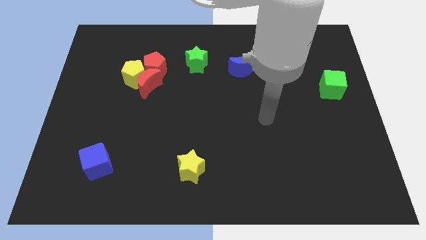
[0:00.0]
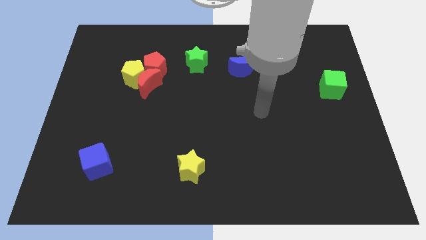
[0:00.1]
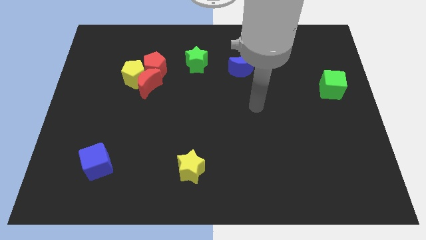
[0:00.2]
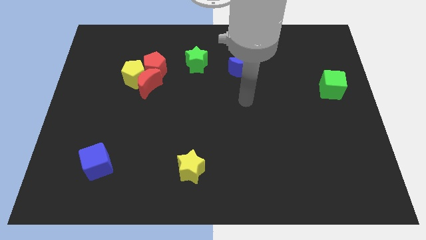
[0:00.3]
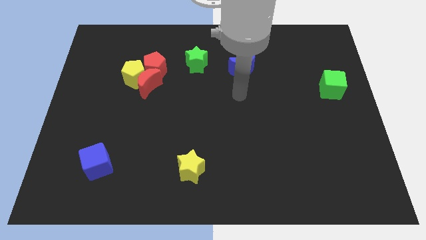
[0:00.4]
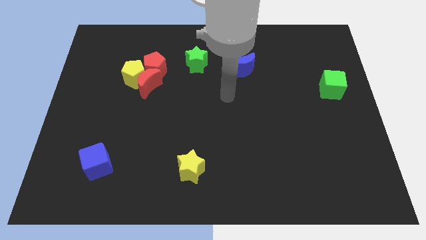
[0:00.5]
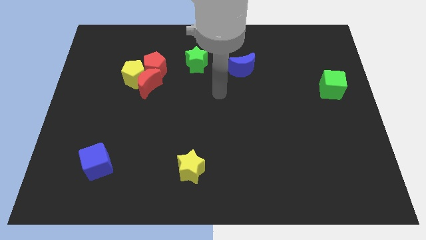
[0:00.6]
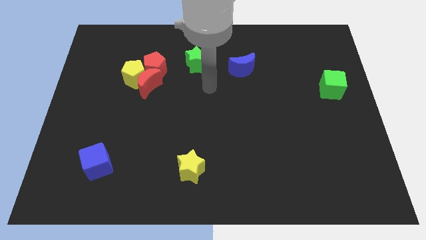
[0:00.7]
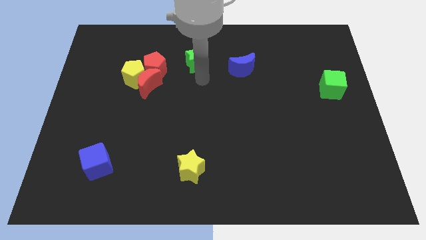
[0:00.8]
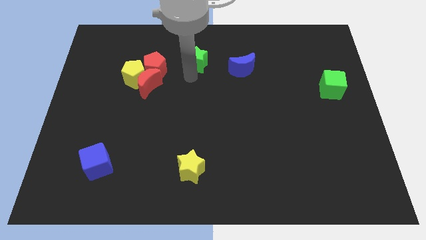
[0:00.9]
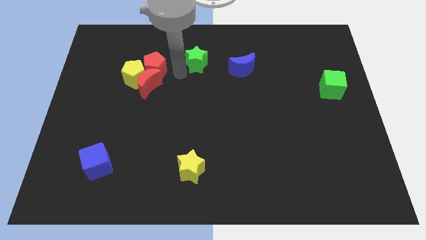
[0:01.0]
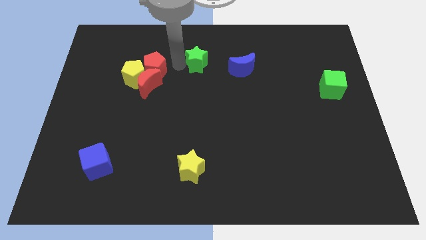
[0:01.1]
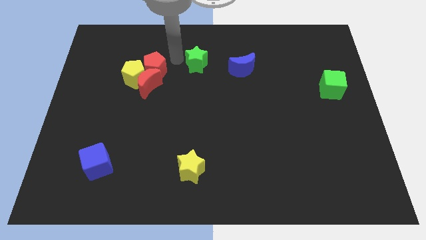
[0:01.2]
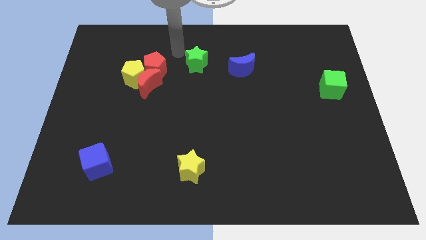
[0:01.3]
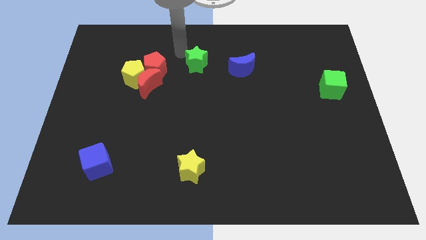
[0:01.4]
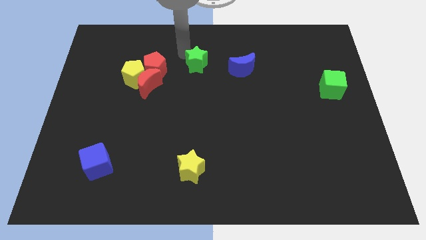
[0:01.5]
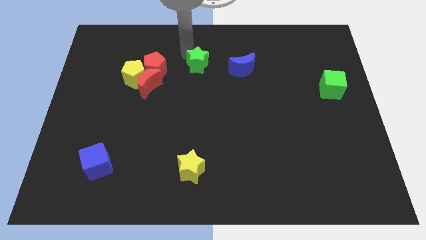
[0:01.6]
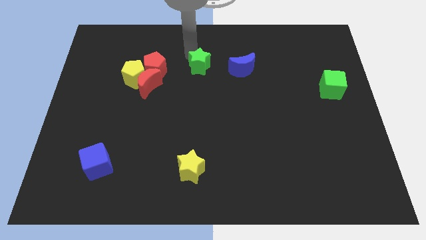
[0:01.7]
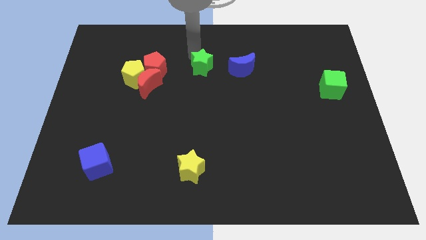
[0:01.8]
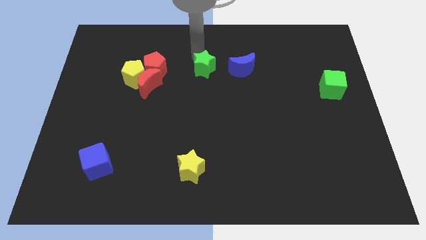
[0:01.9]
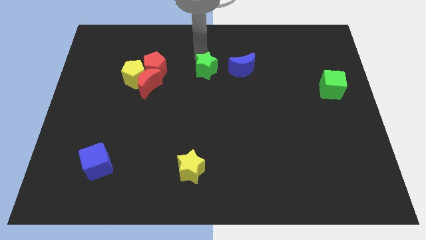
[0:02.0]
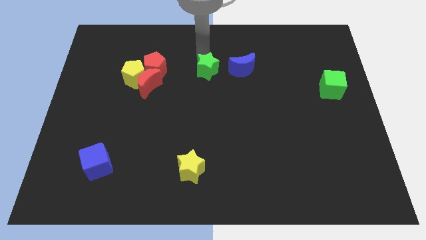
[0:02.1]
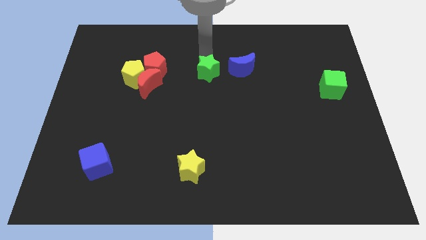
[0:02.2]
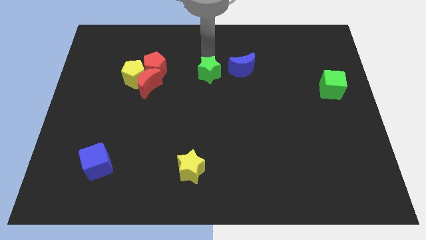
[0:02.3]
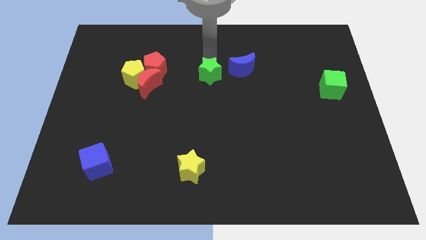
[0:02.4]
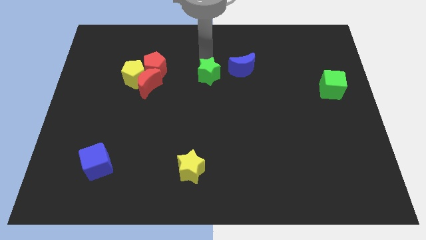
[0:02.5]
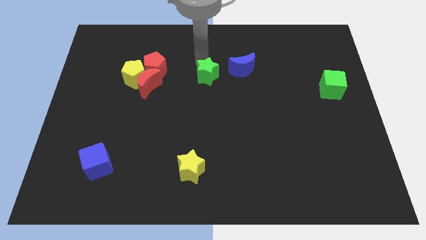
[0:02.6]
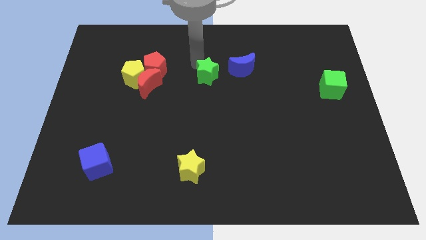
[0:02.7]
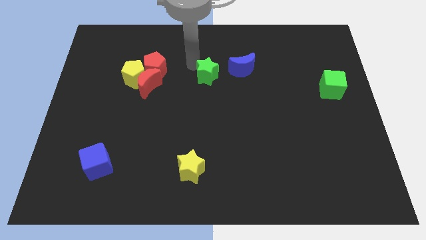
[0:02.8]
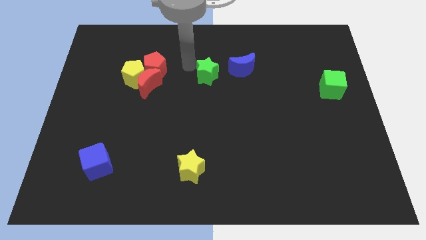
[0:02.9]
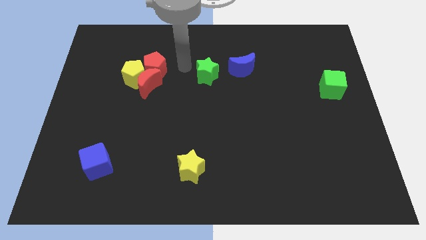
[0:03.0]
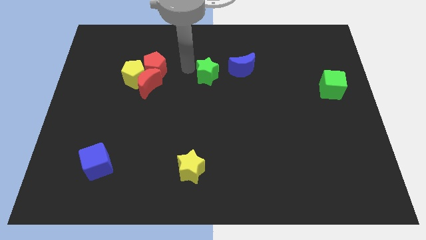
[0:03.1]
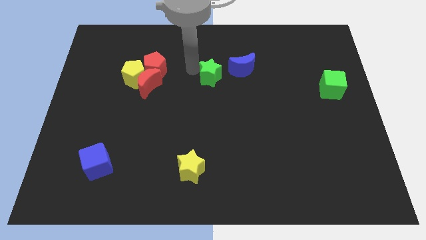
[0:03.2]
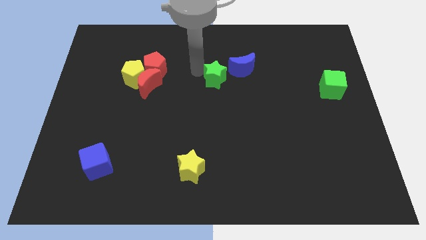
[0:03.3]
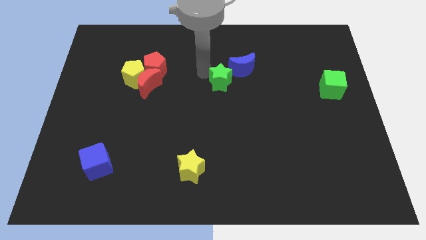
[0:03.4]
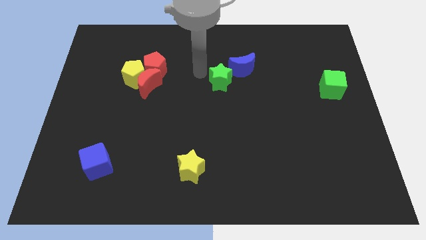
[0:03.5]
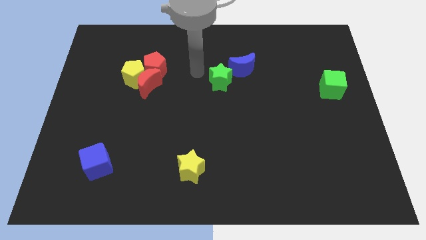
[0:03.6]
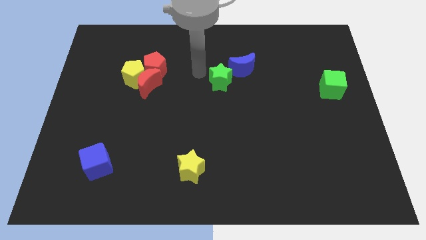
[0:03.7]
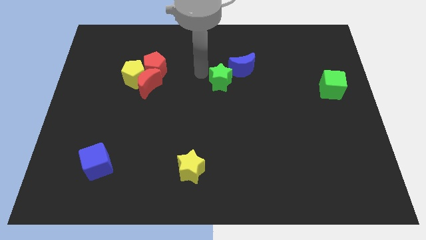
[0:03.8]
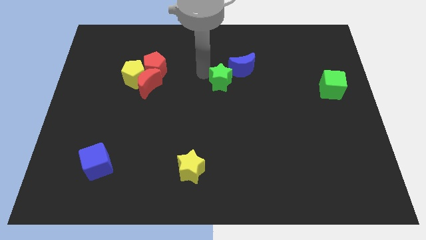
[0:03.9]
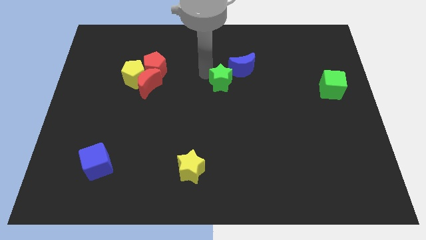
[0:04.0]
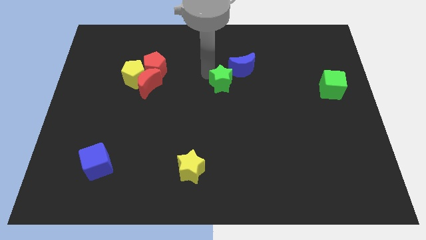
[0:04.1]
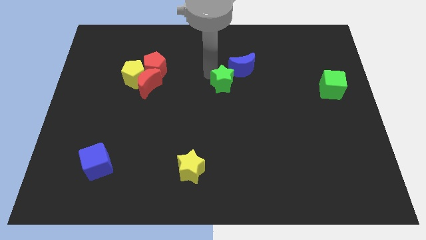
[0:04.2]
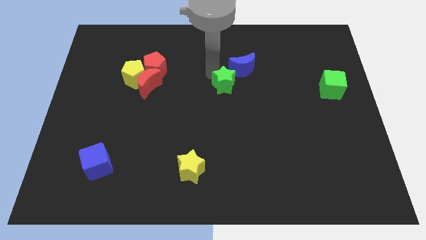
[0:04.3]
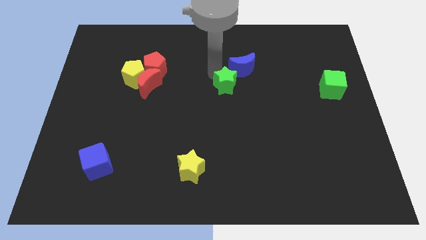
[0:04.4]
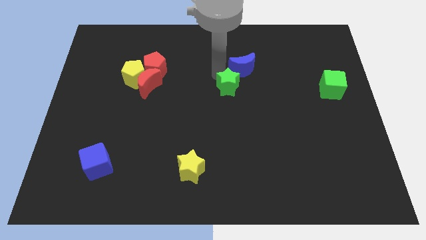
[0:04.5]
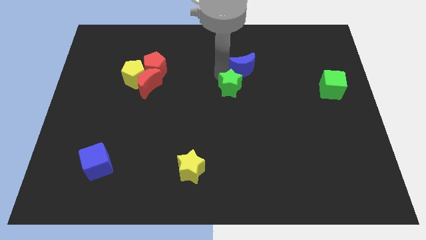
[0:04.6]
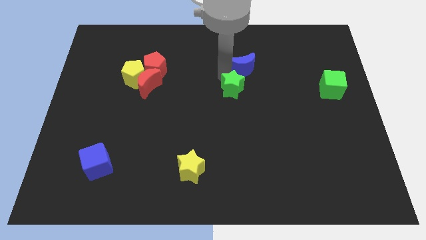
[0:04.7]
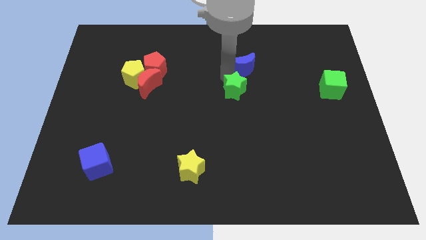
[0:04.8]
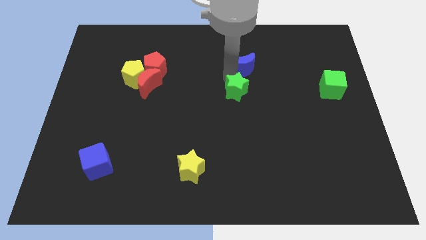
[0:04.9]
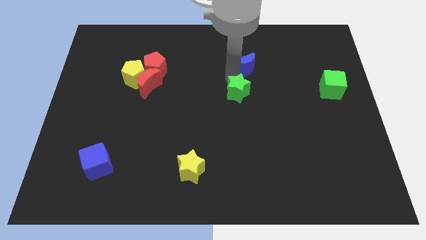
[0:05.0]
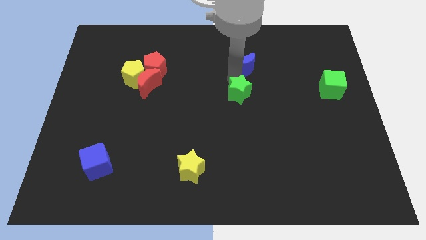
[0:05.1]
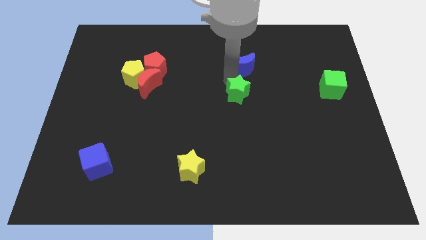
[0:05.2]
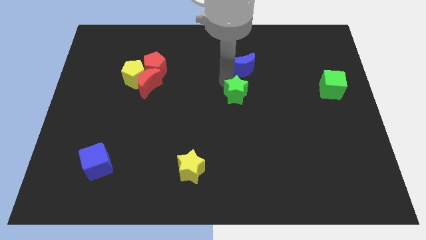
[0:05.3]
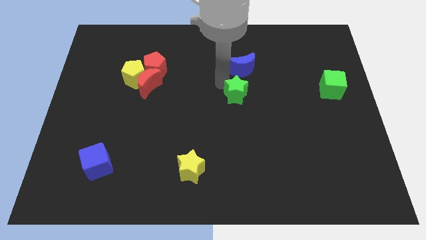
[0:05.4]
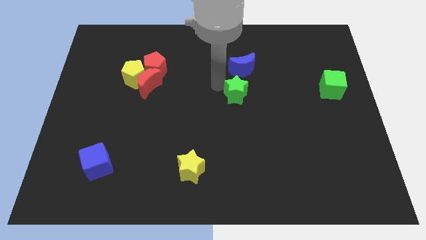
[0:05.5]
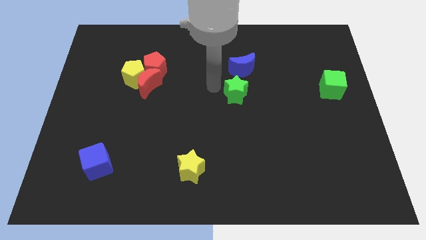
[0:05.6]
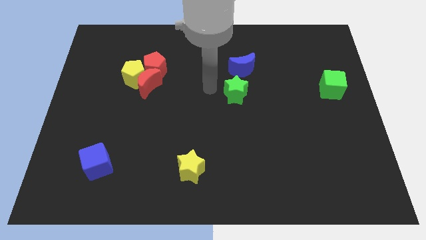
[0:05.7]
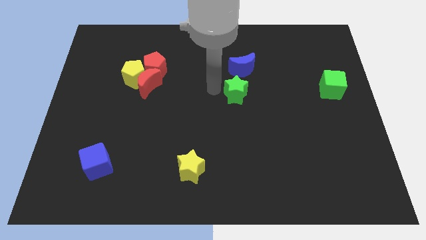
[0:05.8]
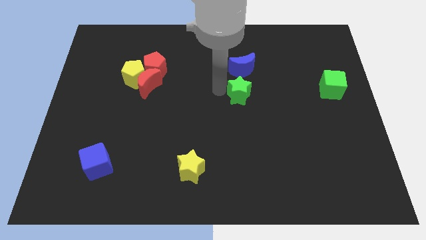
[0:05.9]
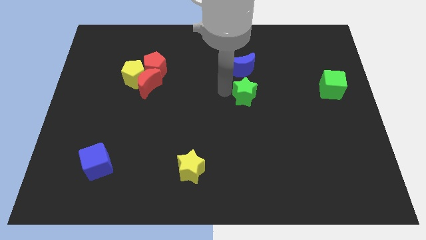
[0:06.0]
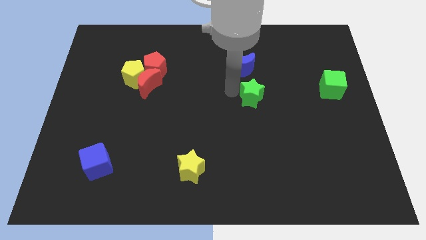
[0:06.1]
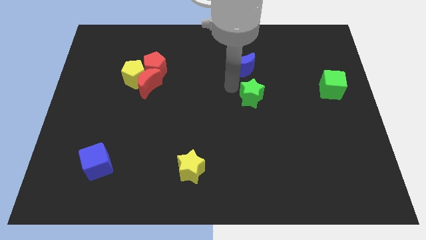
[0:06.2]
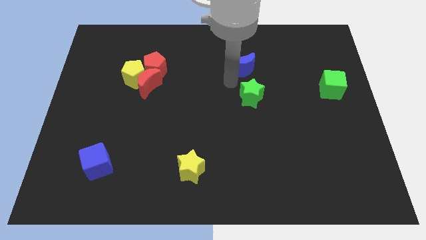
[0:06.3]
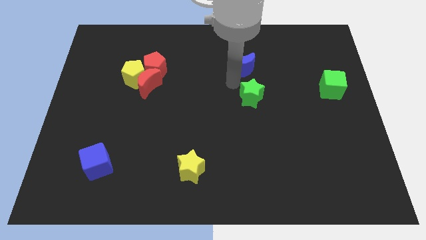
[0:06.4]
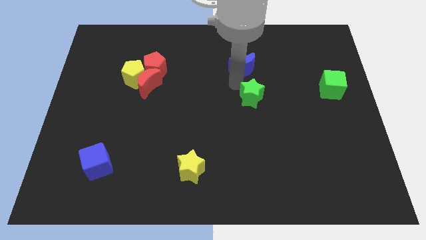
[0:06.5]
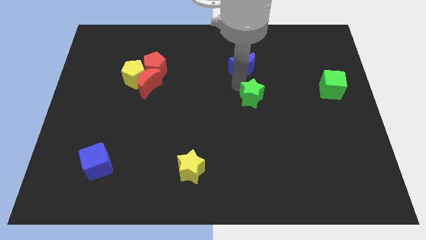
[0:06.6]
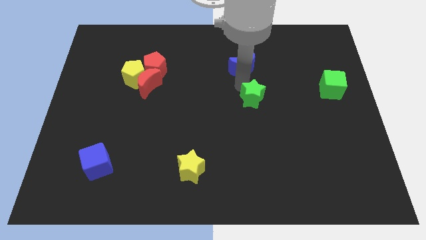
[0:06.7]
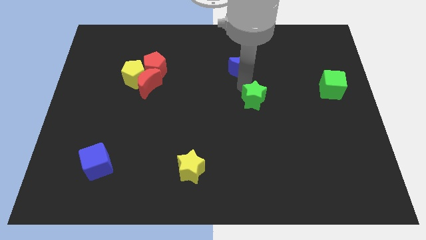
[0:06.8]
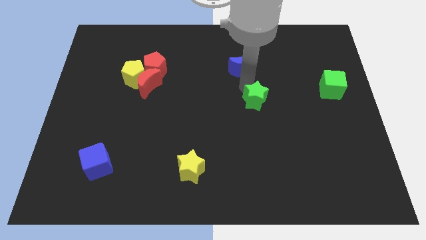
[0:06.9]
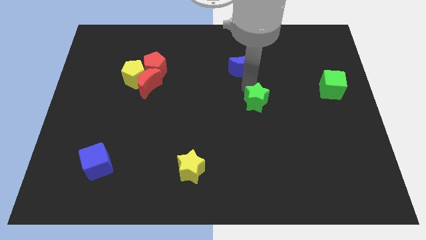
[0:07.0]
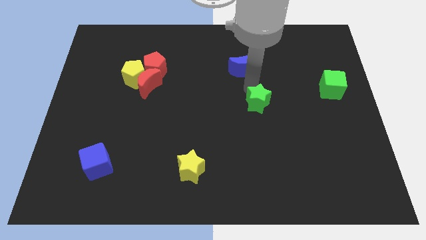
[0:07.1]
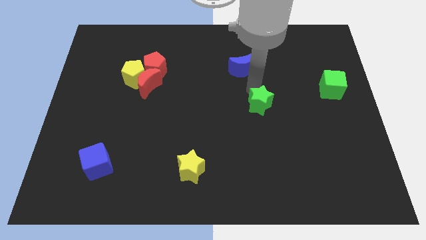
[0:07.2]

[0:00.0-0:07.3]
slide the green star downwards and right diagonally

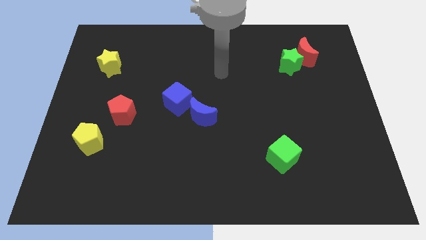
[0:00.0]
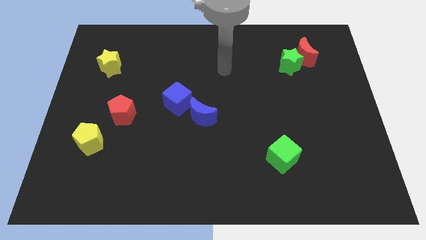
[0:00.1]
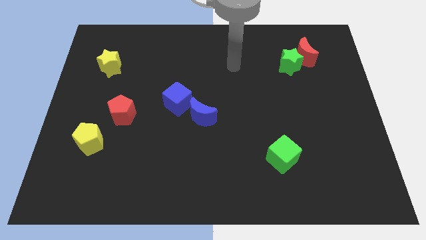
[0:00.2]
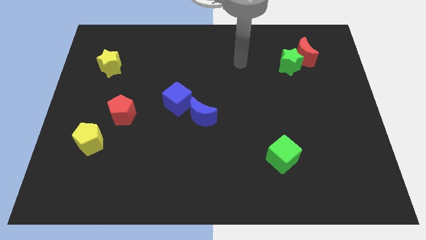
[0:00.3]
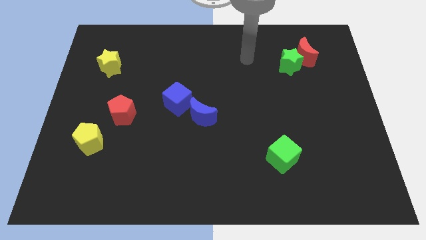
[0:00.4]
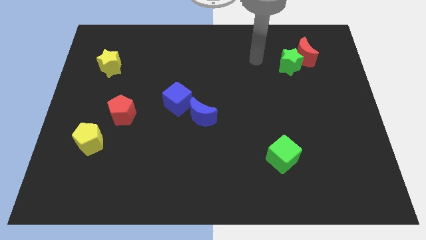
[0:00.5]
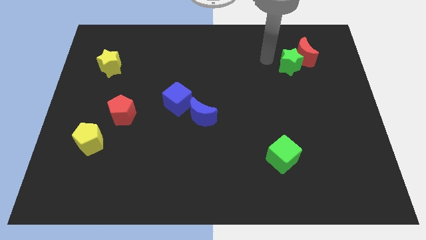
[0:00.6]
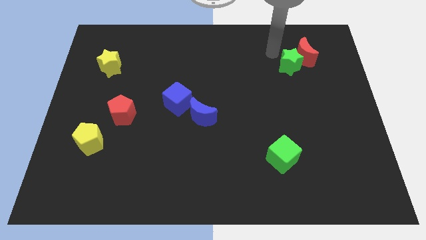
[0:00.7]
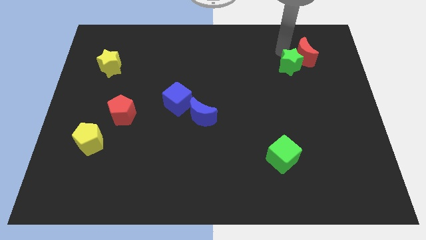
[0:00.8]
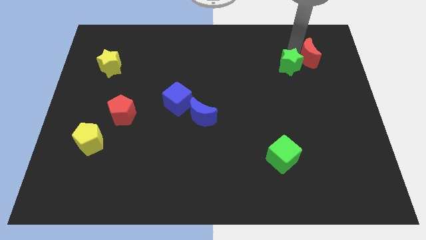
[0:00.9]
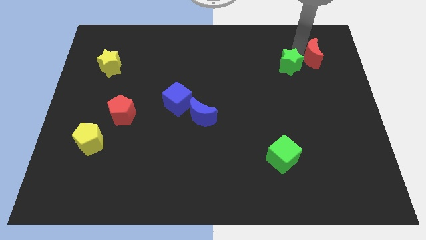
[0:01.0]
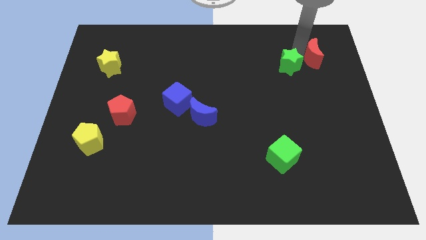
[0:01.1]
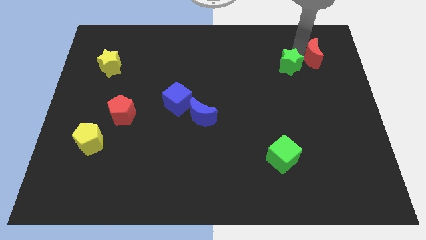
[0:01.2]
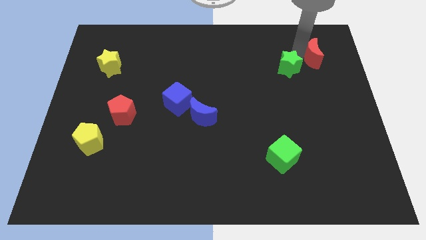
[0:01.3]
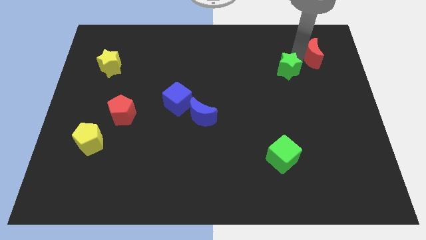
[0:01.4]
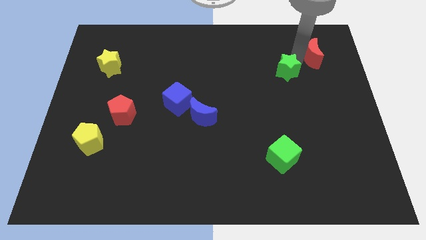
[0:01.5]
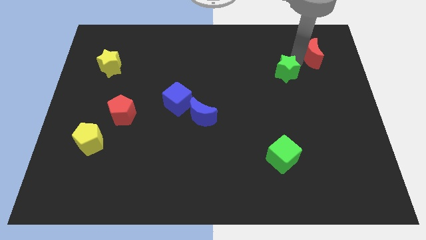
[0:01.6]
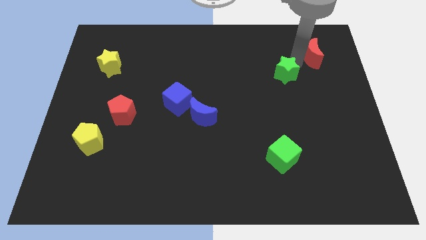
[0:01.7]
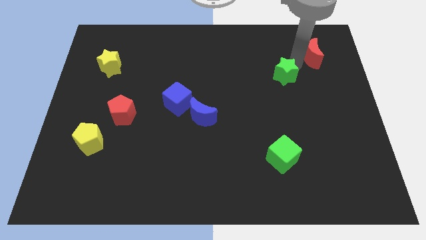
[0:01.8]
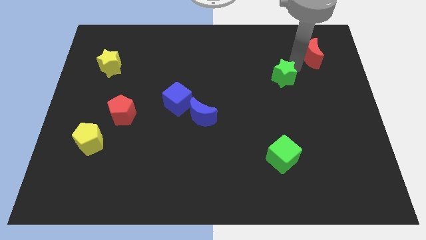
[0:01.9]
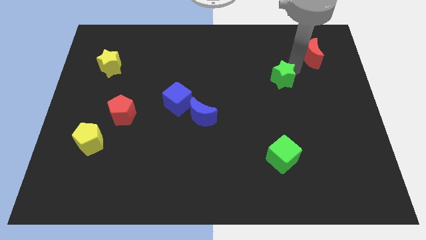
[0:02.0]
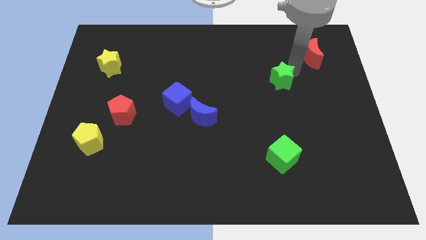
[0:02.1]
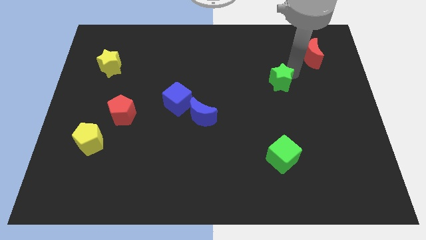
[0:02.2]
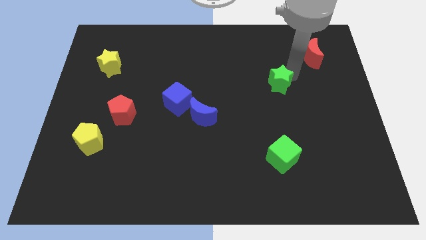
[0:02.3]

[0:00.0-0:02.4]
slightly push the green star downwards and to the left
